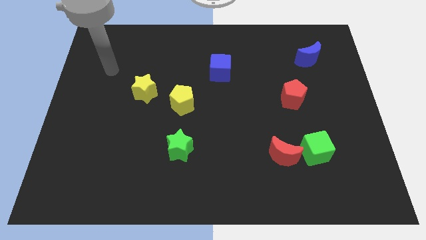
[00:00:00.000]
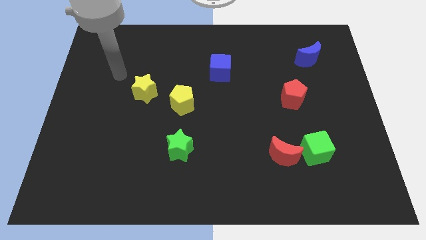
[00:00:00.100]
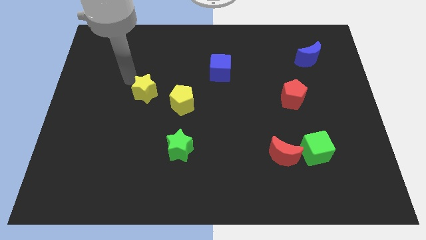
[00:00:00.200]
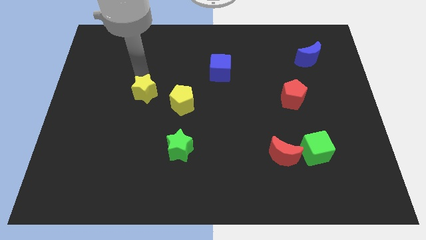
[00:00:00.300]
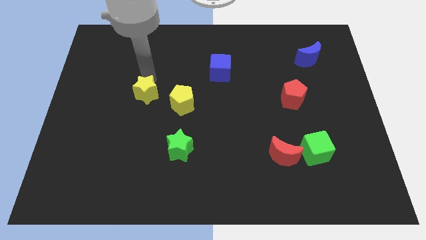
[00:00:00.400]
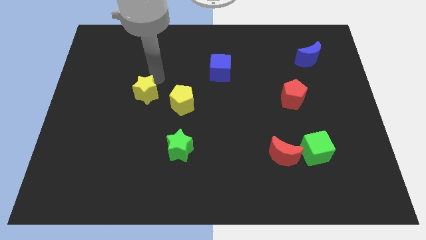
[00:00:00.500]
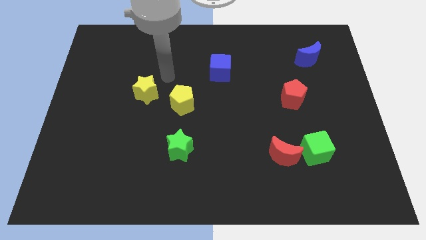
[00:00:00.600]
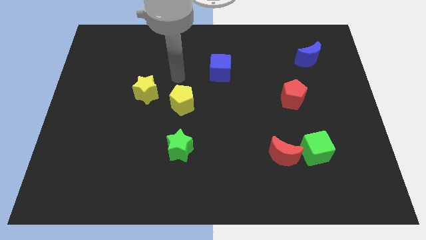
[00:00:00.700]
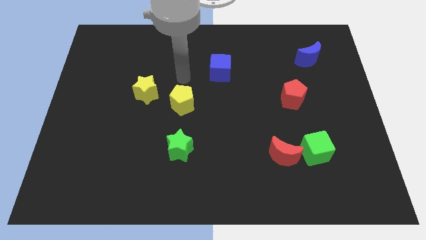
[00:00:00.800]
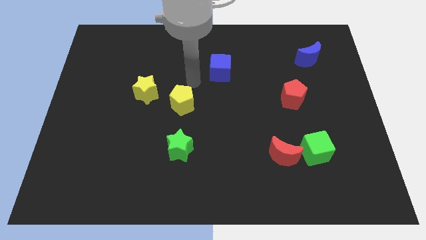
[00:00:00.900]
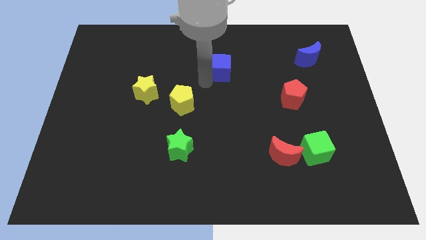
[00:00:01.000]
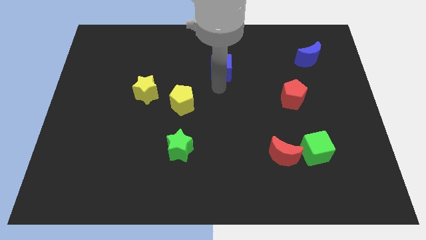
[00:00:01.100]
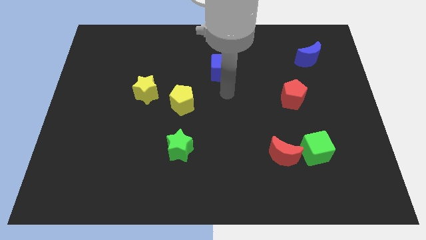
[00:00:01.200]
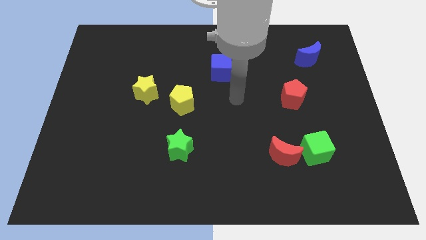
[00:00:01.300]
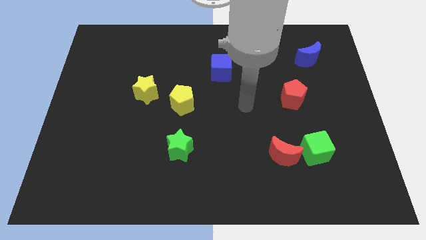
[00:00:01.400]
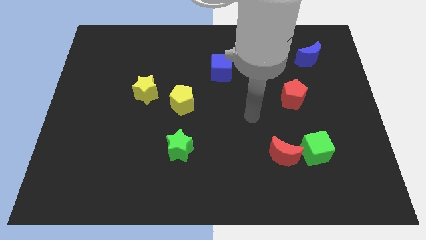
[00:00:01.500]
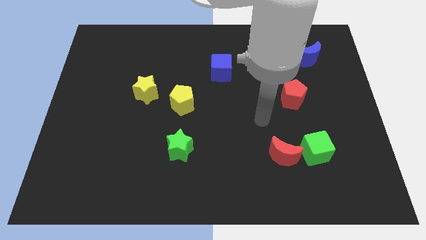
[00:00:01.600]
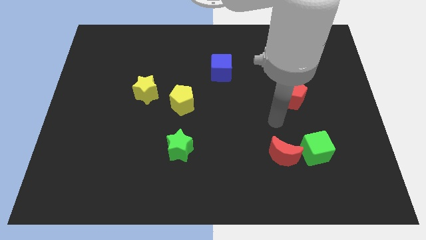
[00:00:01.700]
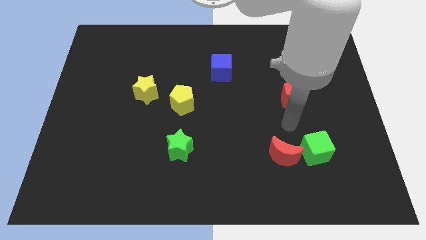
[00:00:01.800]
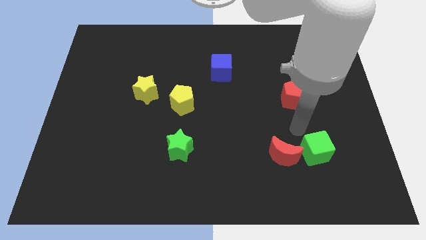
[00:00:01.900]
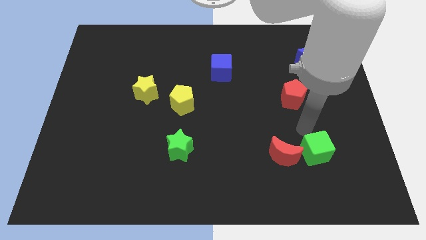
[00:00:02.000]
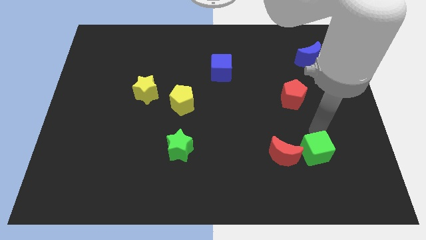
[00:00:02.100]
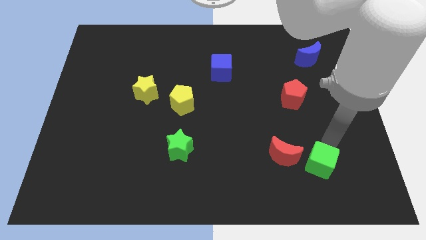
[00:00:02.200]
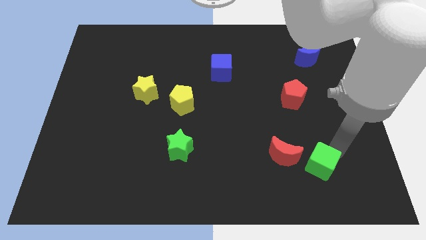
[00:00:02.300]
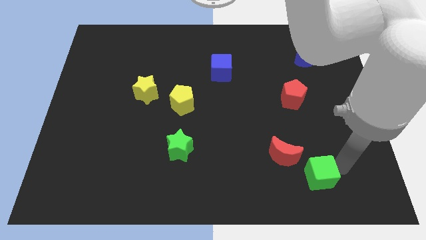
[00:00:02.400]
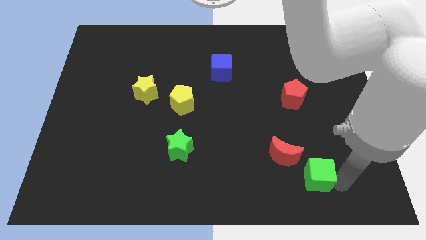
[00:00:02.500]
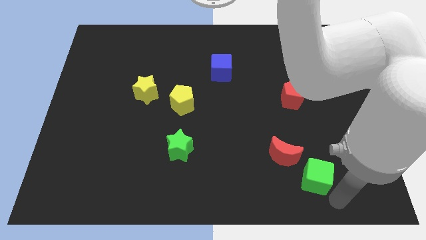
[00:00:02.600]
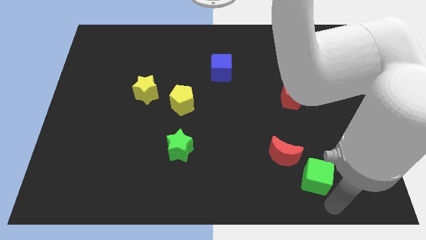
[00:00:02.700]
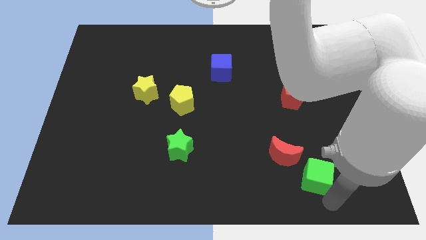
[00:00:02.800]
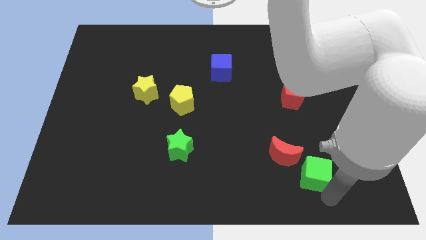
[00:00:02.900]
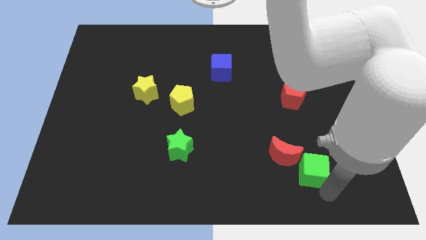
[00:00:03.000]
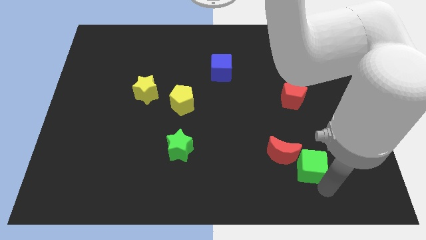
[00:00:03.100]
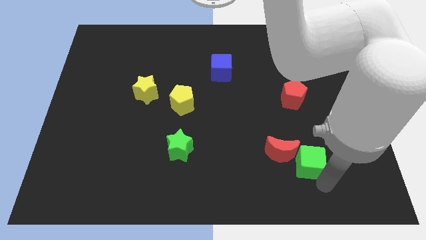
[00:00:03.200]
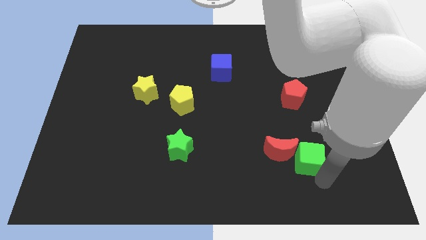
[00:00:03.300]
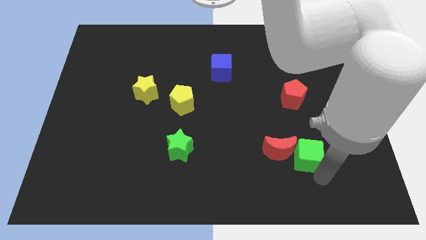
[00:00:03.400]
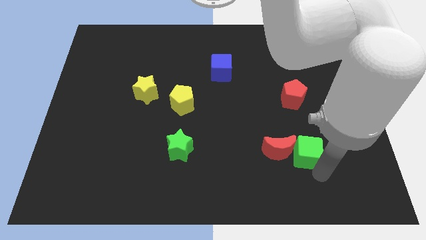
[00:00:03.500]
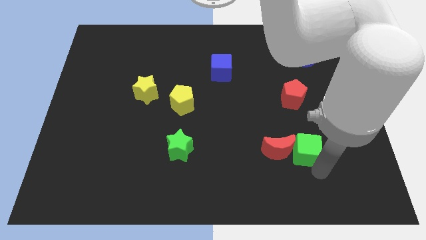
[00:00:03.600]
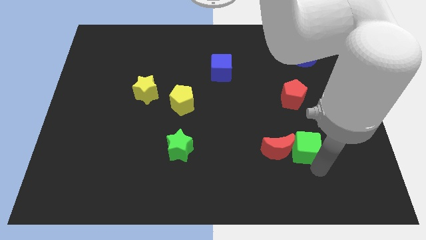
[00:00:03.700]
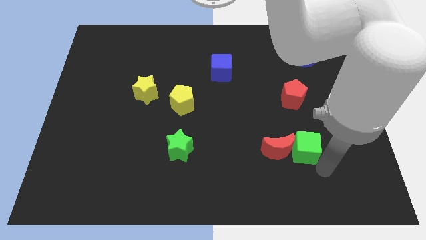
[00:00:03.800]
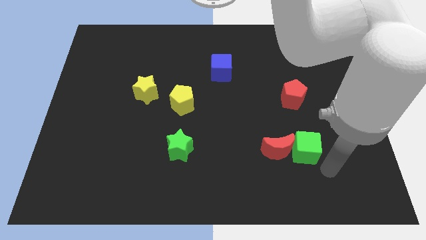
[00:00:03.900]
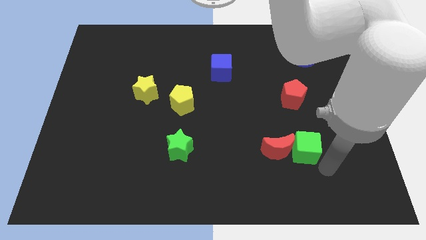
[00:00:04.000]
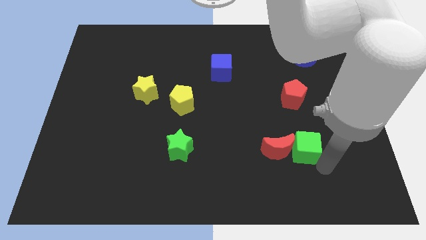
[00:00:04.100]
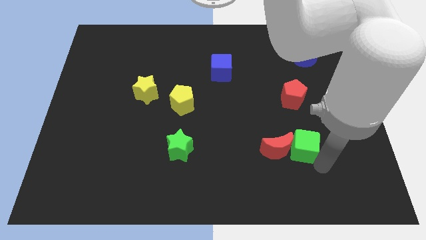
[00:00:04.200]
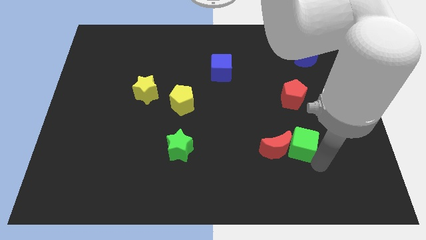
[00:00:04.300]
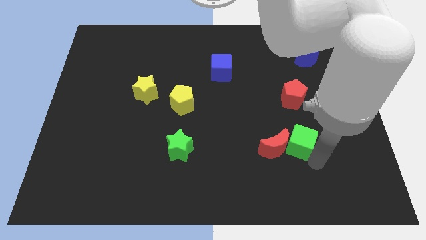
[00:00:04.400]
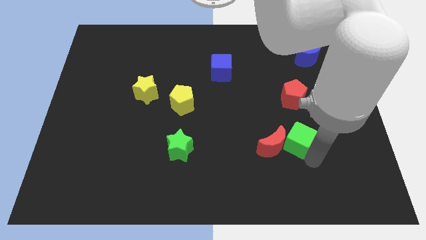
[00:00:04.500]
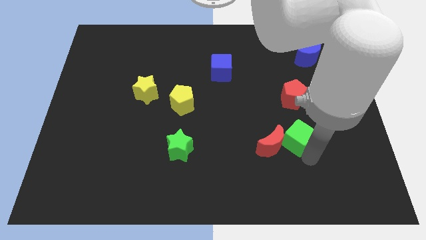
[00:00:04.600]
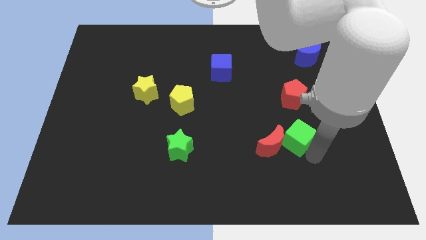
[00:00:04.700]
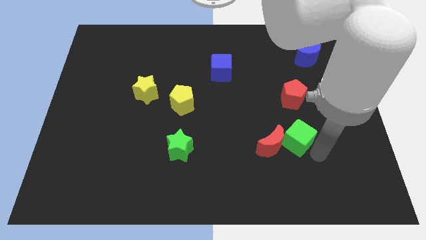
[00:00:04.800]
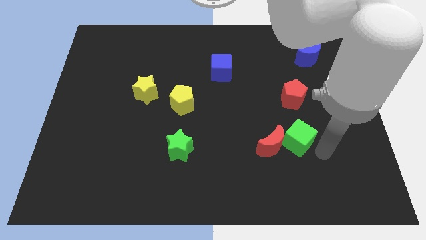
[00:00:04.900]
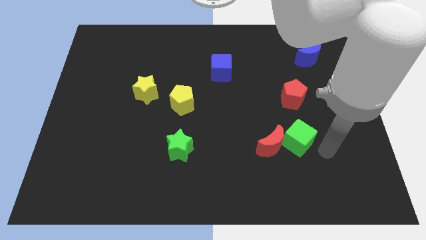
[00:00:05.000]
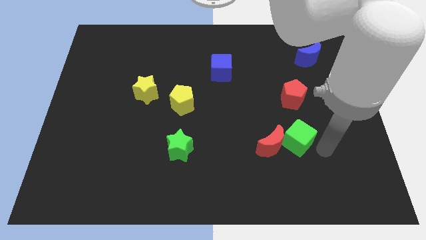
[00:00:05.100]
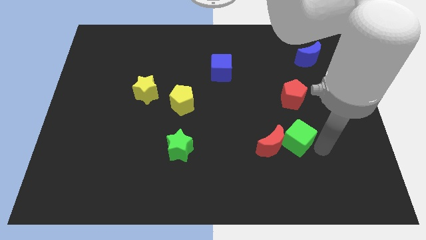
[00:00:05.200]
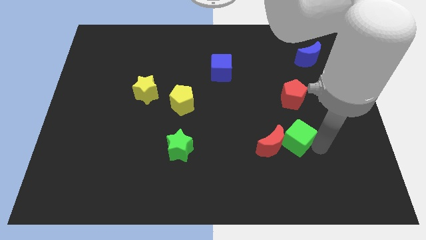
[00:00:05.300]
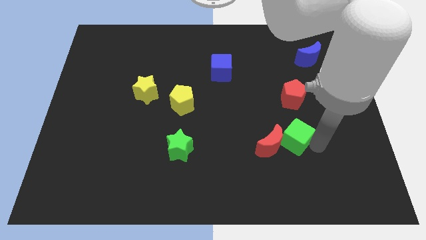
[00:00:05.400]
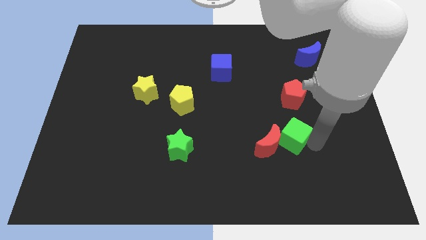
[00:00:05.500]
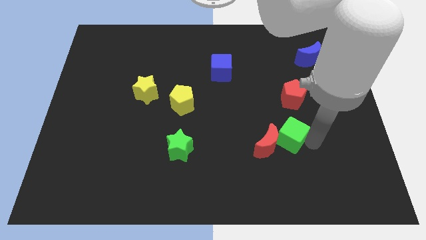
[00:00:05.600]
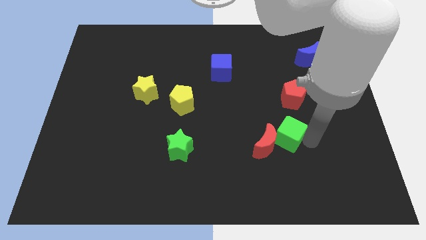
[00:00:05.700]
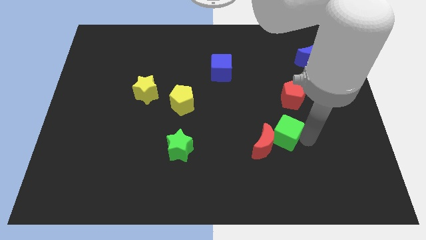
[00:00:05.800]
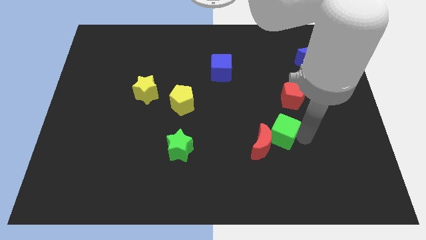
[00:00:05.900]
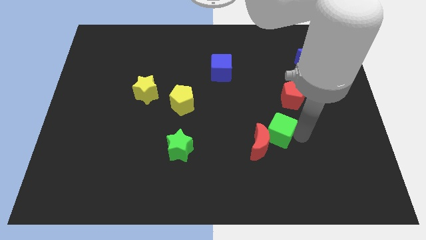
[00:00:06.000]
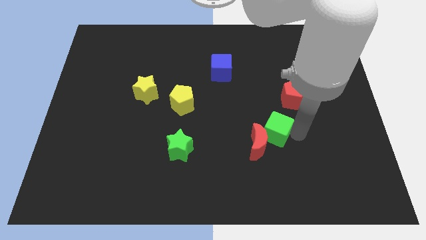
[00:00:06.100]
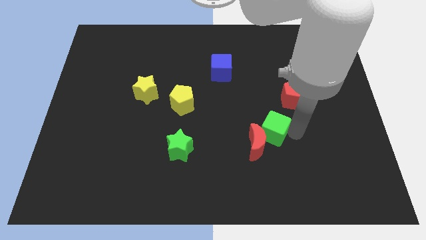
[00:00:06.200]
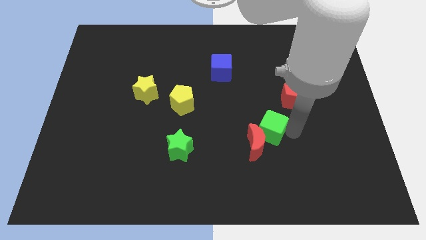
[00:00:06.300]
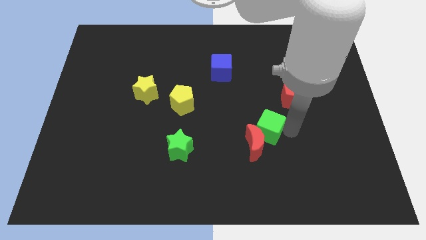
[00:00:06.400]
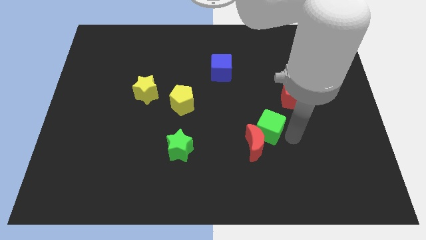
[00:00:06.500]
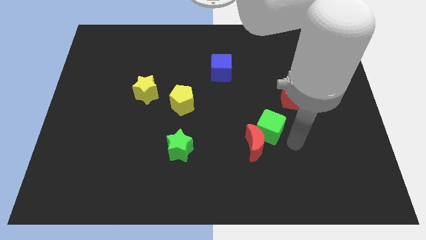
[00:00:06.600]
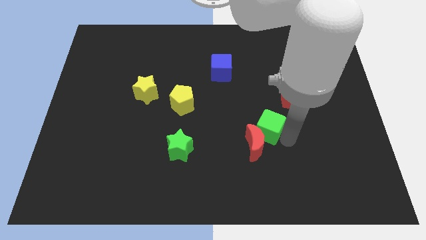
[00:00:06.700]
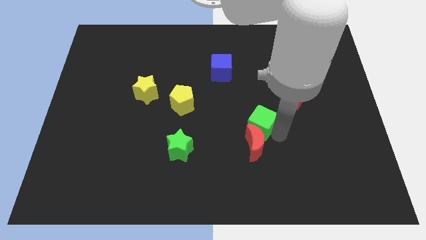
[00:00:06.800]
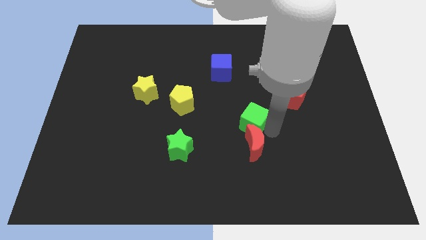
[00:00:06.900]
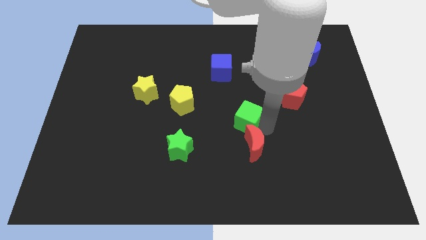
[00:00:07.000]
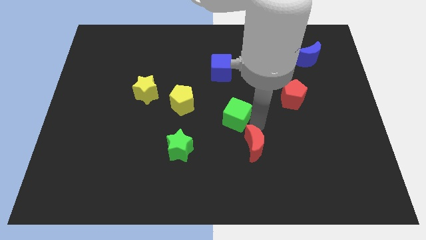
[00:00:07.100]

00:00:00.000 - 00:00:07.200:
slide the green cube below the blue cube

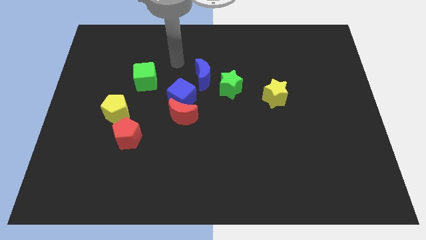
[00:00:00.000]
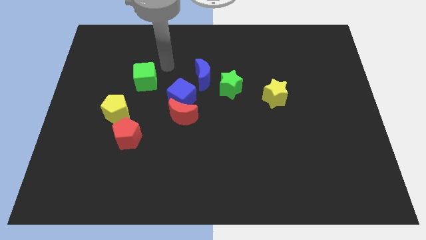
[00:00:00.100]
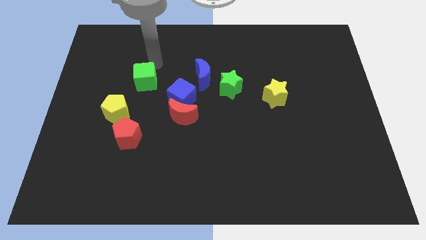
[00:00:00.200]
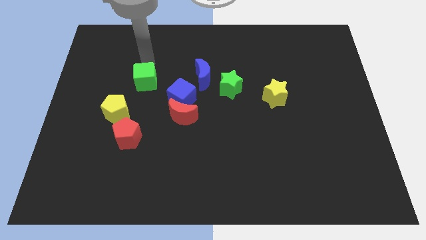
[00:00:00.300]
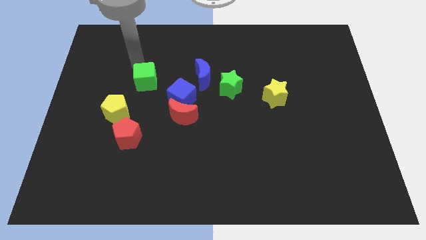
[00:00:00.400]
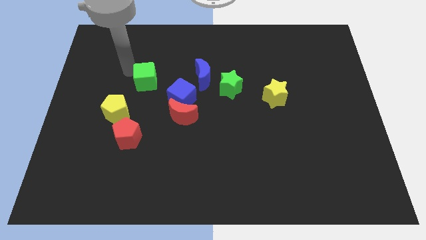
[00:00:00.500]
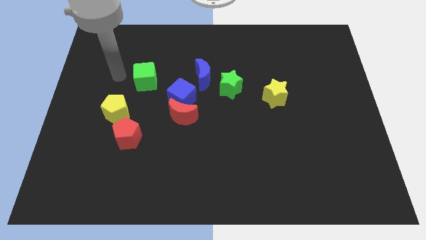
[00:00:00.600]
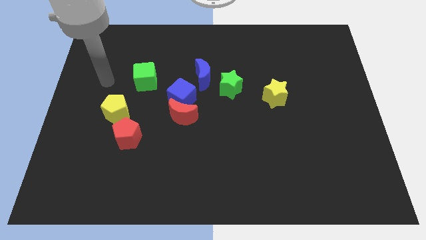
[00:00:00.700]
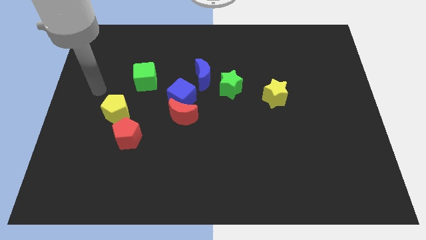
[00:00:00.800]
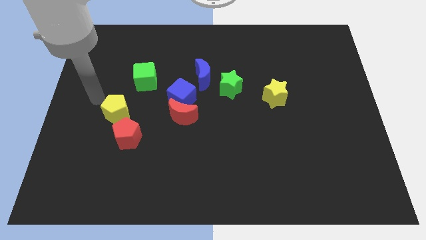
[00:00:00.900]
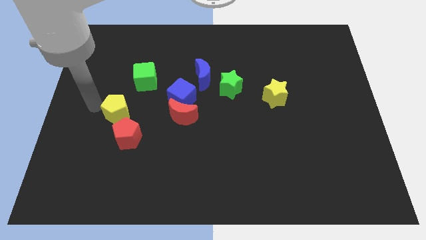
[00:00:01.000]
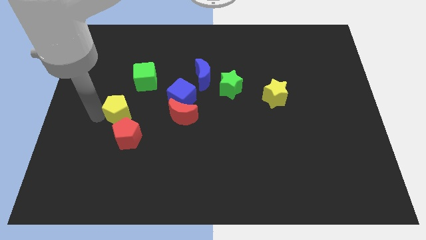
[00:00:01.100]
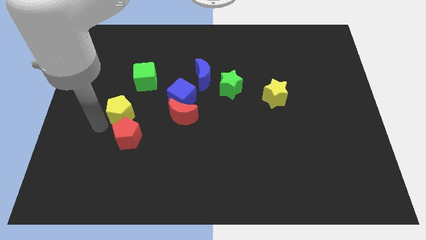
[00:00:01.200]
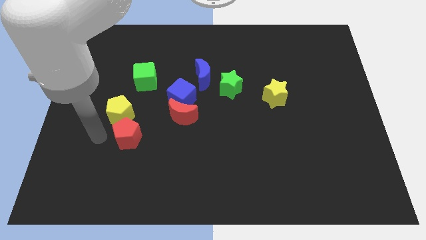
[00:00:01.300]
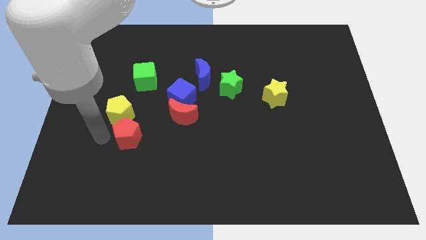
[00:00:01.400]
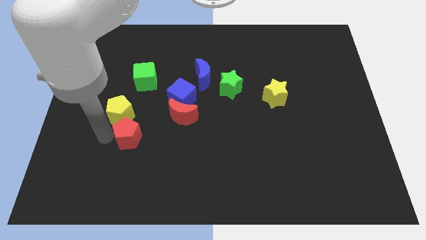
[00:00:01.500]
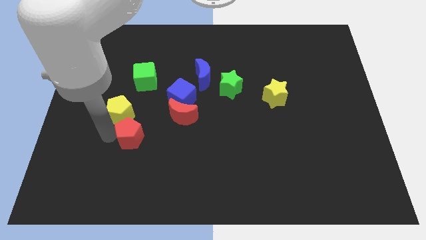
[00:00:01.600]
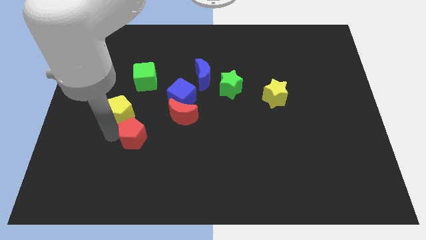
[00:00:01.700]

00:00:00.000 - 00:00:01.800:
slide the red pentagon to the bottom left of the red moon
